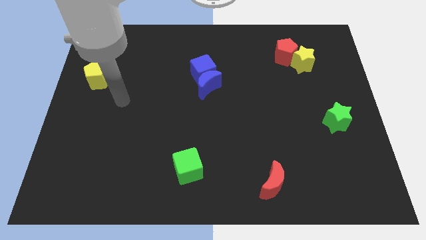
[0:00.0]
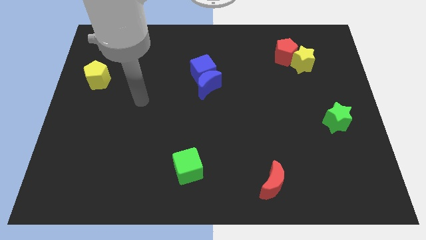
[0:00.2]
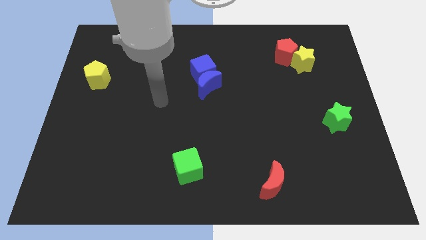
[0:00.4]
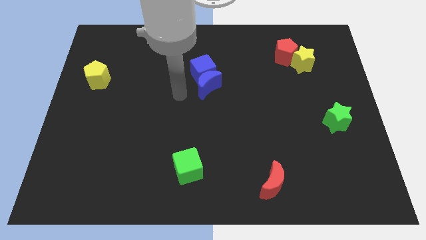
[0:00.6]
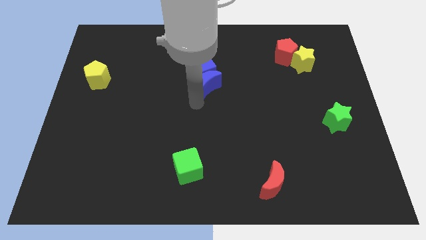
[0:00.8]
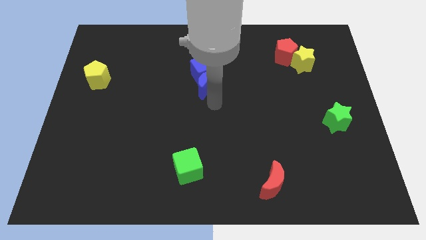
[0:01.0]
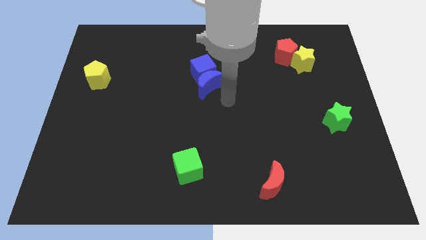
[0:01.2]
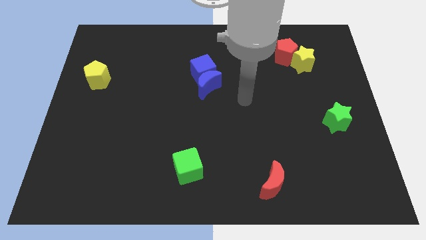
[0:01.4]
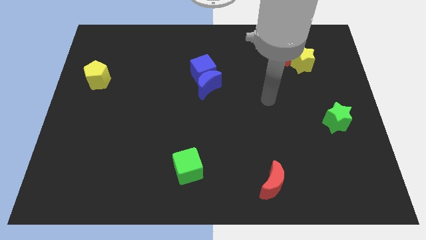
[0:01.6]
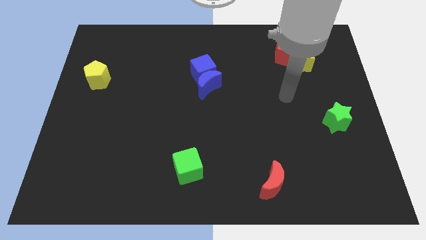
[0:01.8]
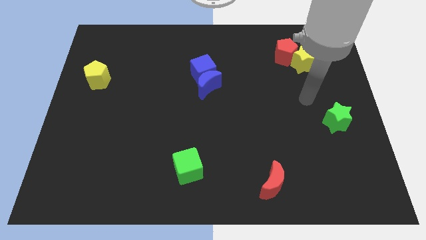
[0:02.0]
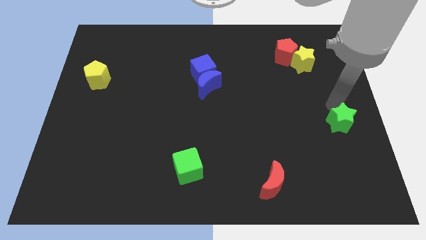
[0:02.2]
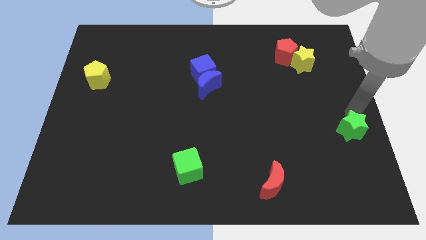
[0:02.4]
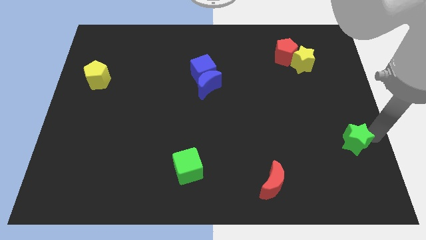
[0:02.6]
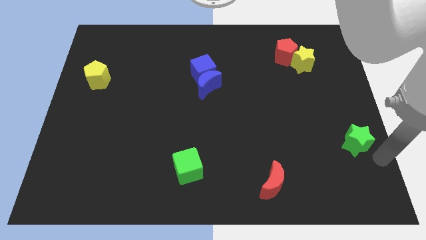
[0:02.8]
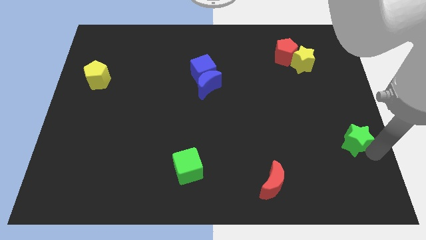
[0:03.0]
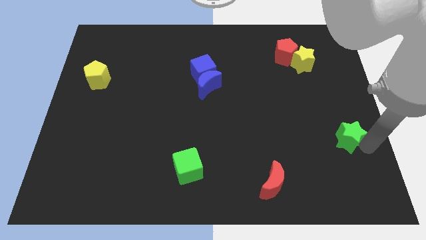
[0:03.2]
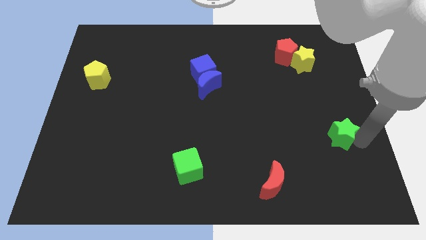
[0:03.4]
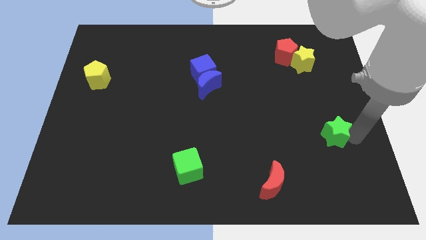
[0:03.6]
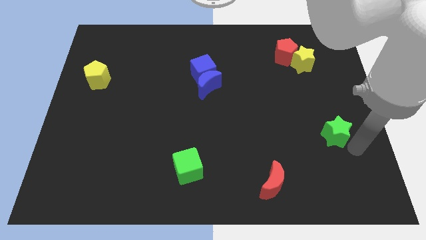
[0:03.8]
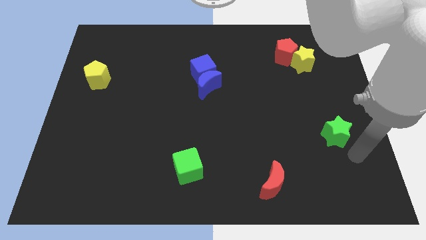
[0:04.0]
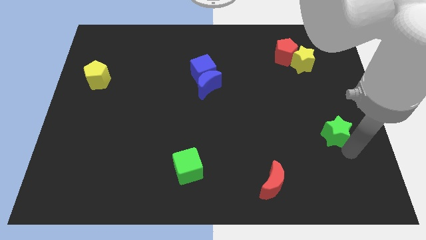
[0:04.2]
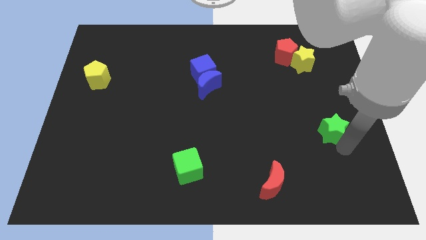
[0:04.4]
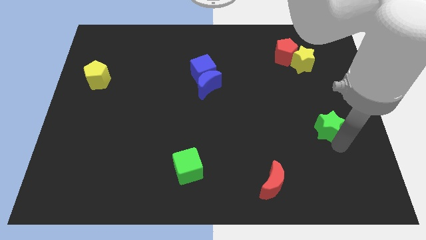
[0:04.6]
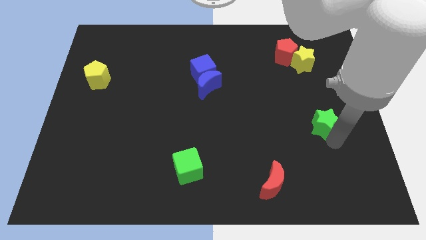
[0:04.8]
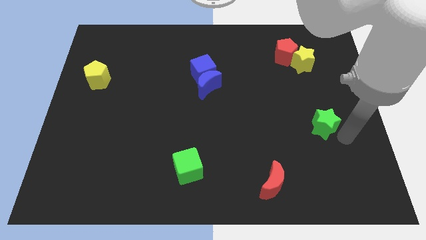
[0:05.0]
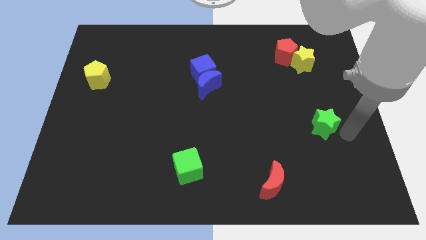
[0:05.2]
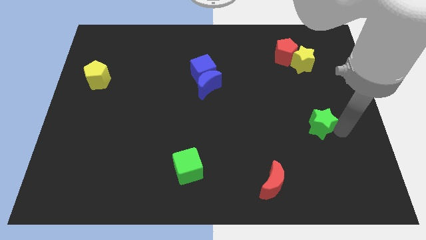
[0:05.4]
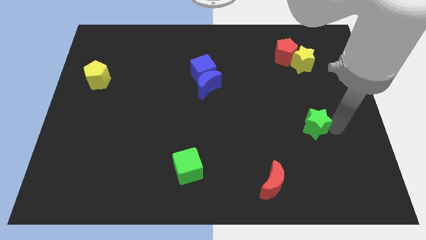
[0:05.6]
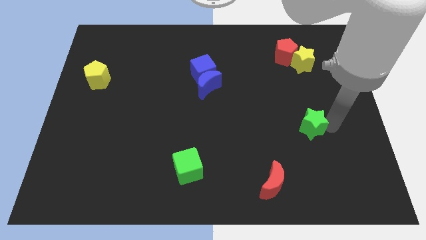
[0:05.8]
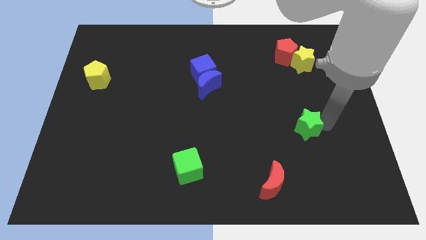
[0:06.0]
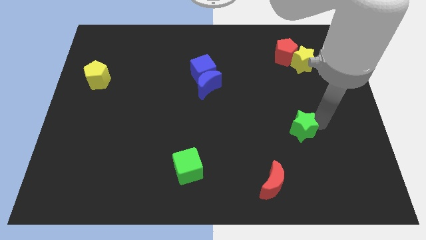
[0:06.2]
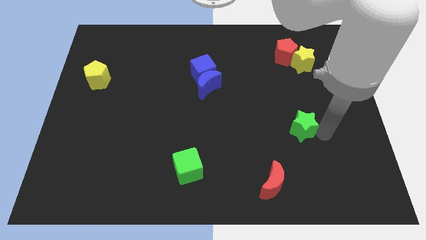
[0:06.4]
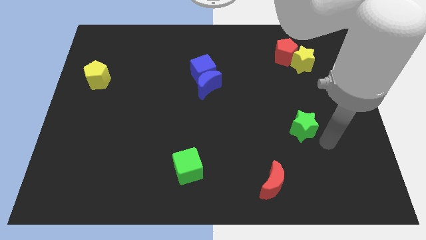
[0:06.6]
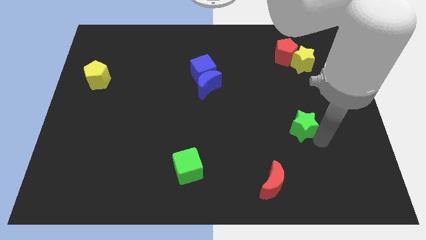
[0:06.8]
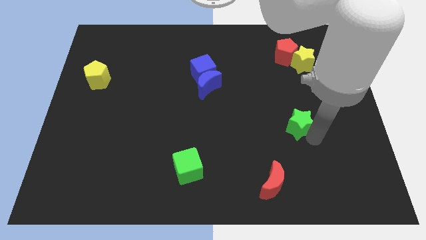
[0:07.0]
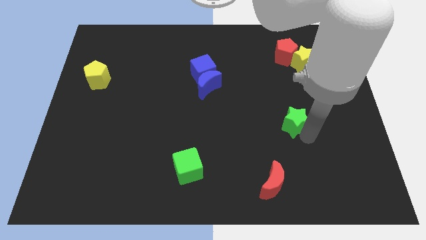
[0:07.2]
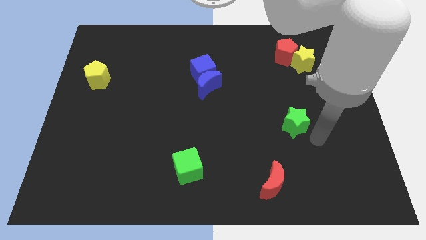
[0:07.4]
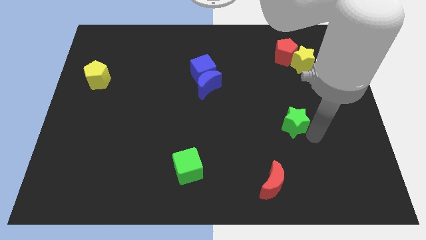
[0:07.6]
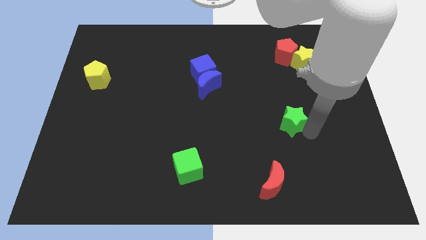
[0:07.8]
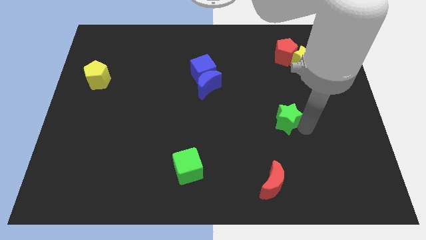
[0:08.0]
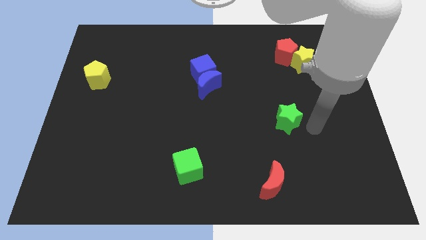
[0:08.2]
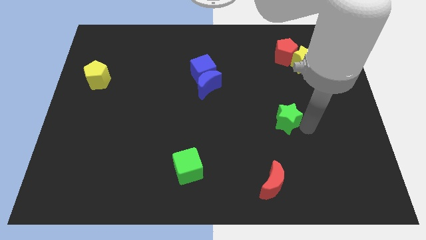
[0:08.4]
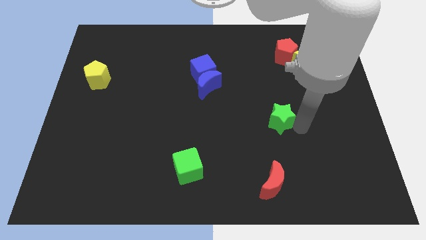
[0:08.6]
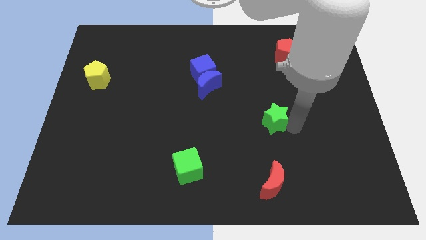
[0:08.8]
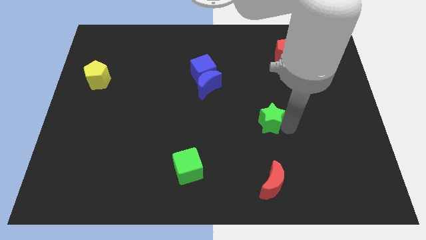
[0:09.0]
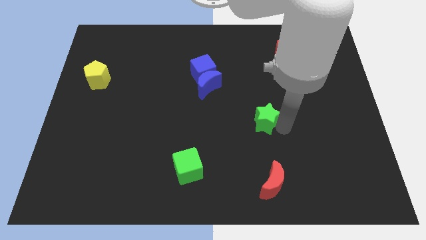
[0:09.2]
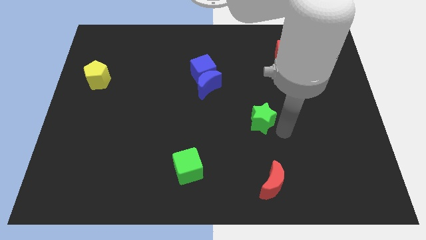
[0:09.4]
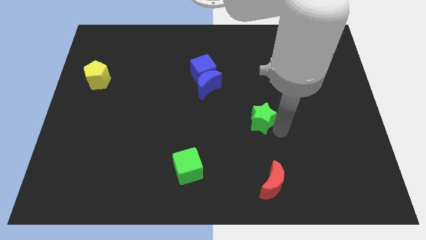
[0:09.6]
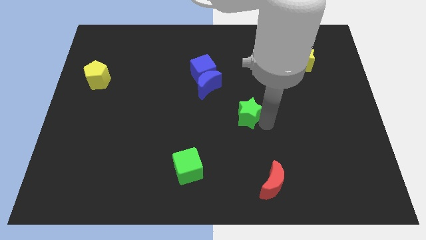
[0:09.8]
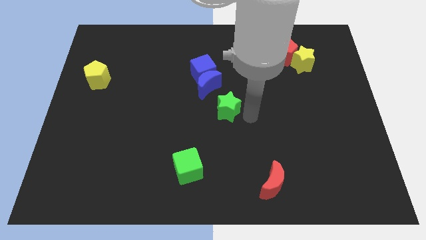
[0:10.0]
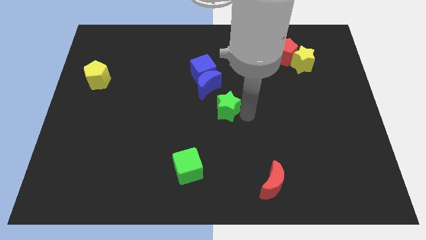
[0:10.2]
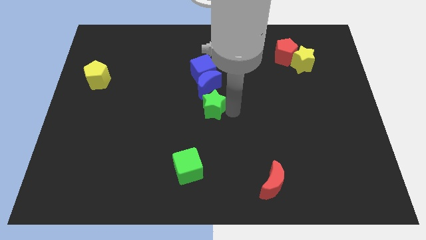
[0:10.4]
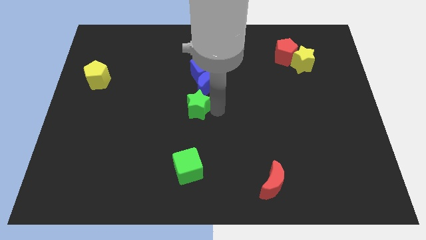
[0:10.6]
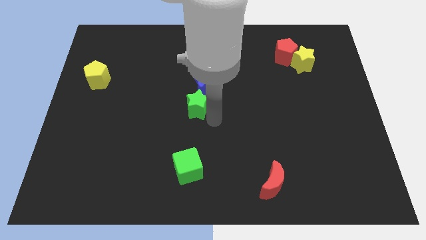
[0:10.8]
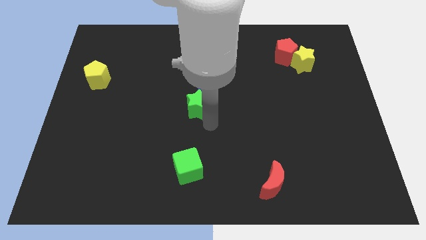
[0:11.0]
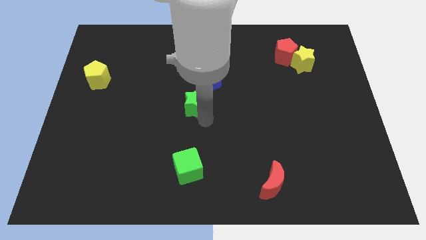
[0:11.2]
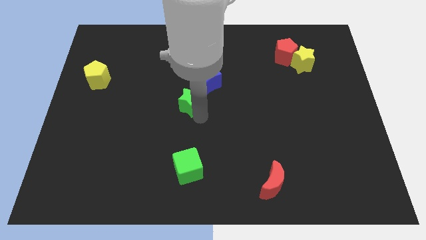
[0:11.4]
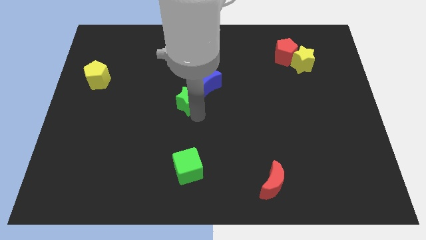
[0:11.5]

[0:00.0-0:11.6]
move the green star to the bottom left side of the blue cube

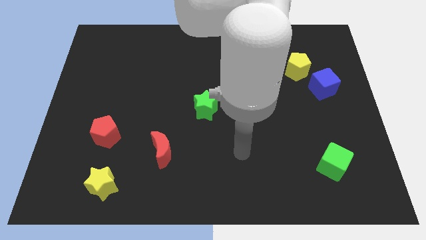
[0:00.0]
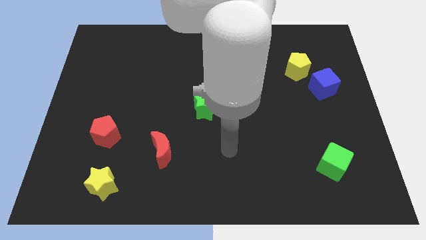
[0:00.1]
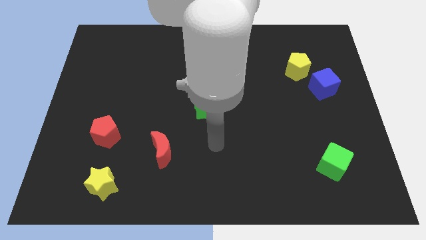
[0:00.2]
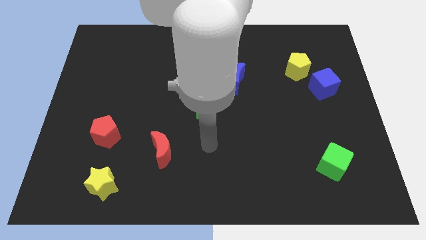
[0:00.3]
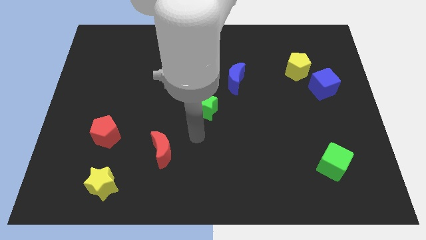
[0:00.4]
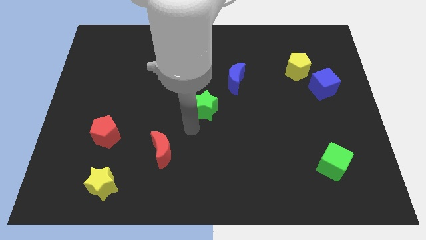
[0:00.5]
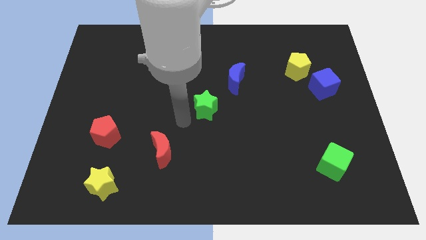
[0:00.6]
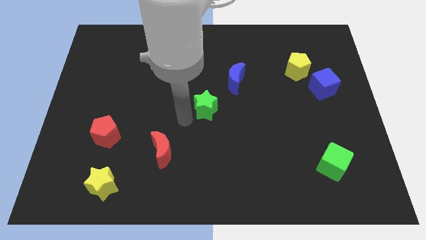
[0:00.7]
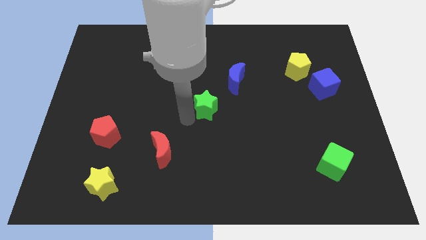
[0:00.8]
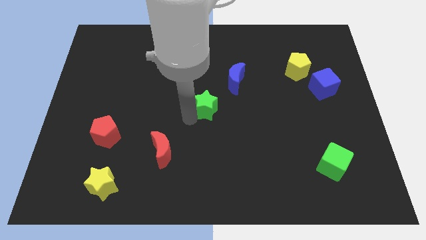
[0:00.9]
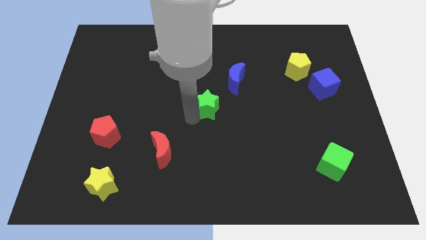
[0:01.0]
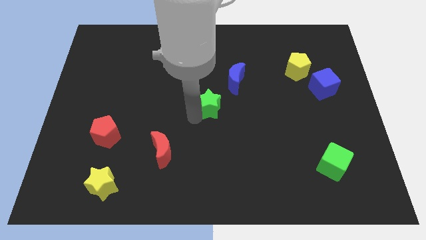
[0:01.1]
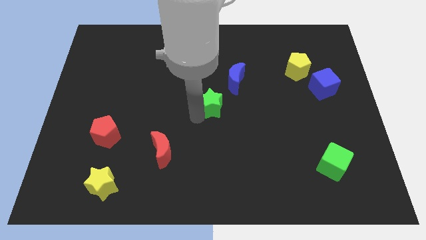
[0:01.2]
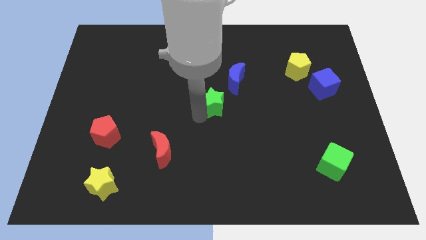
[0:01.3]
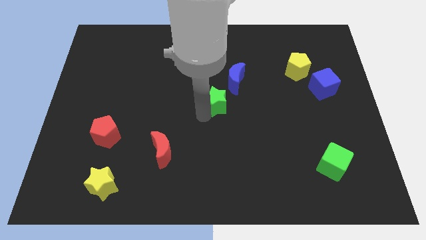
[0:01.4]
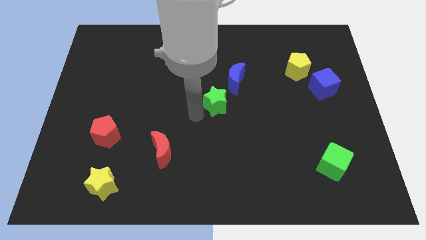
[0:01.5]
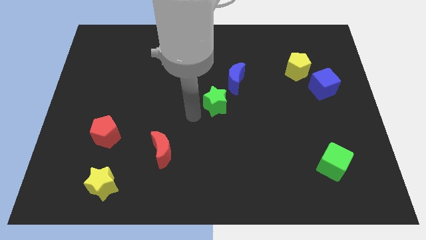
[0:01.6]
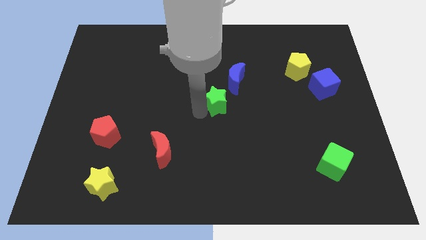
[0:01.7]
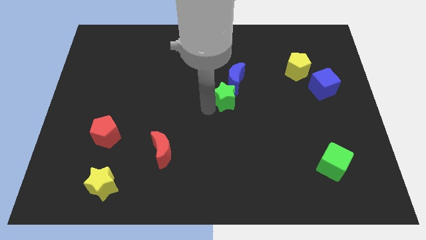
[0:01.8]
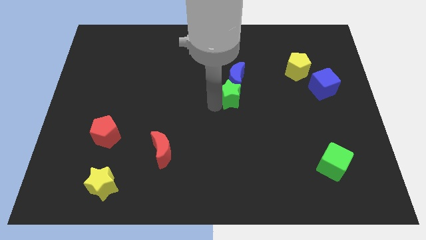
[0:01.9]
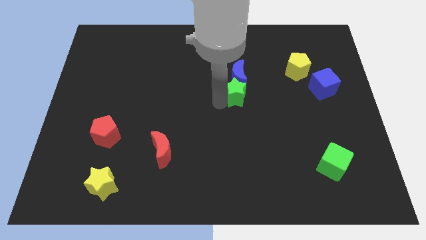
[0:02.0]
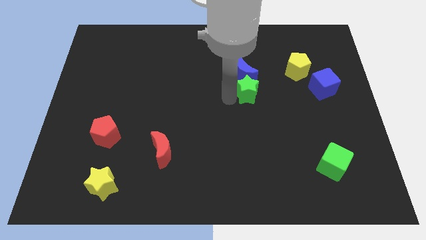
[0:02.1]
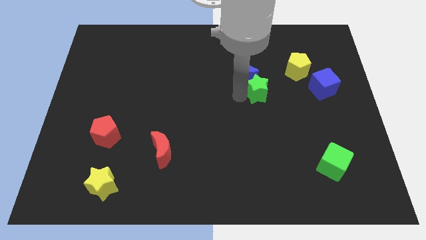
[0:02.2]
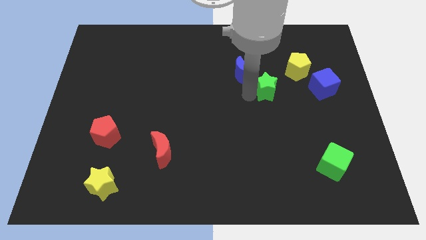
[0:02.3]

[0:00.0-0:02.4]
slide the green star just right of the blue moon
